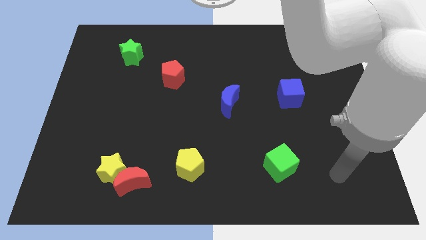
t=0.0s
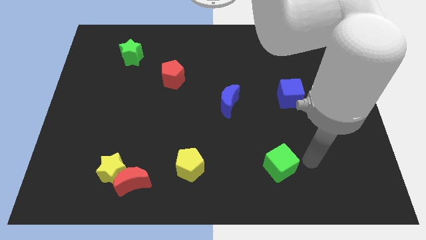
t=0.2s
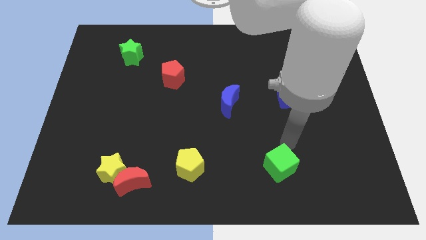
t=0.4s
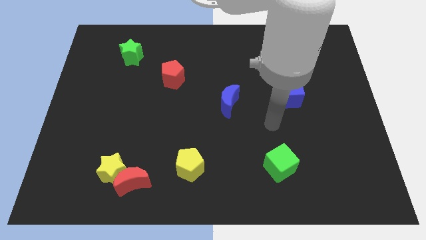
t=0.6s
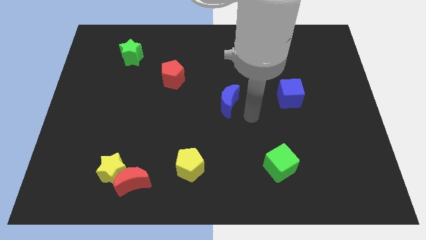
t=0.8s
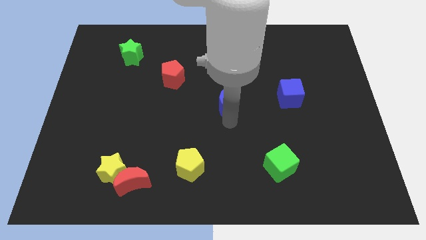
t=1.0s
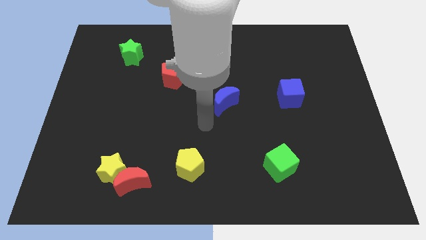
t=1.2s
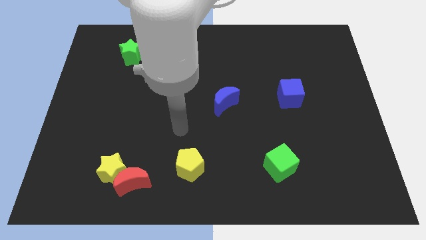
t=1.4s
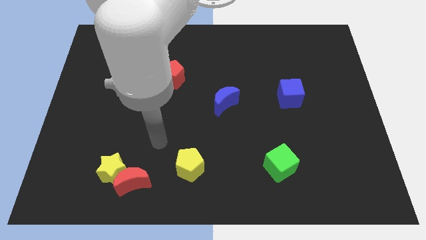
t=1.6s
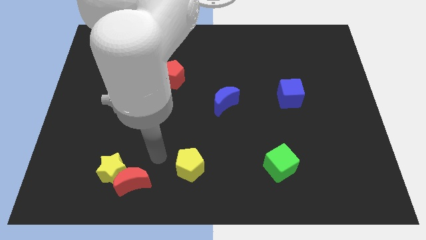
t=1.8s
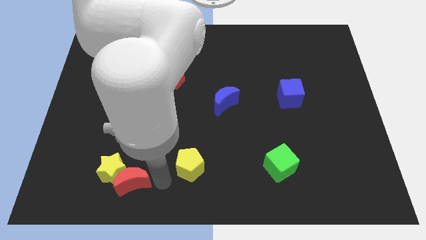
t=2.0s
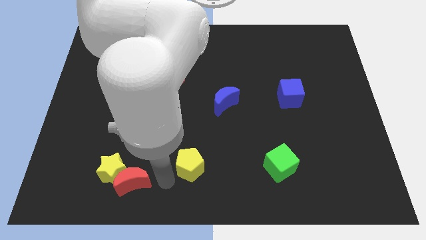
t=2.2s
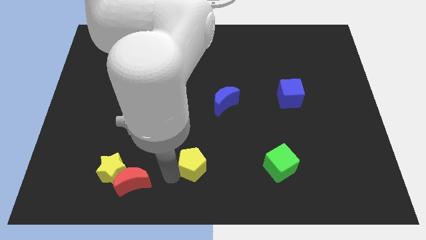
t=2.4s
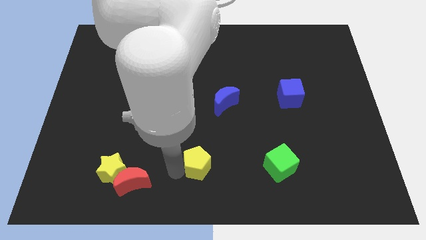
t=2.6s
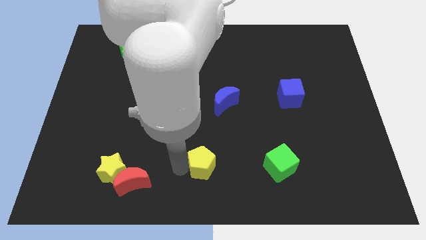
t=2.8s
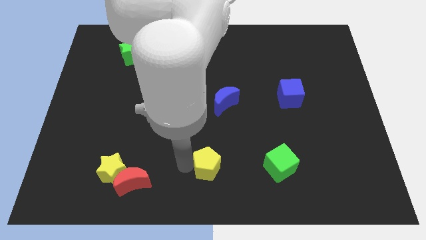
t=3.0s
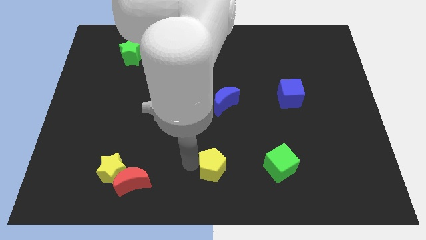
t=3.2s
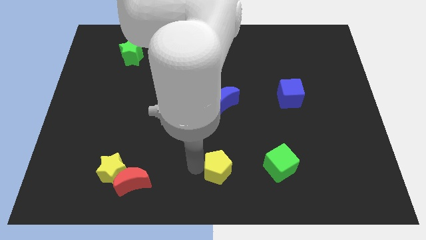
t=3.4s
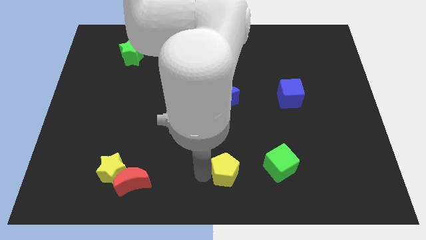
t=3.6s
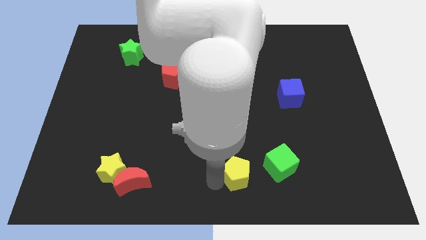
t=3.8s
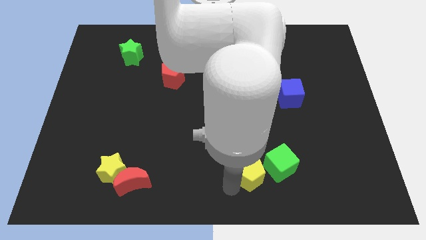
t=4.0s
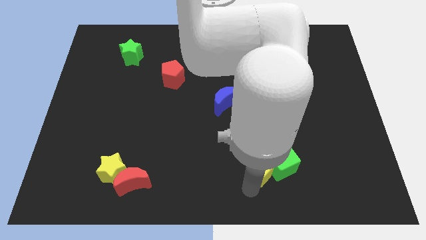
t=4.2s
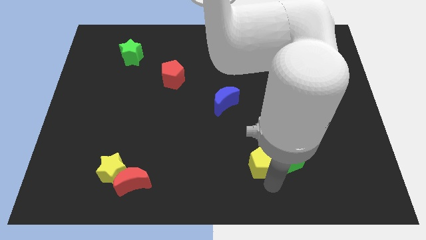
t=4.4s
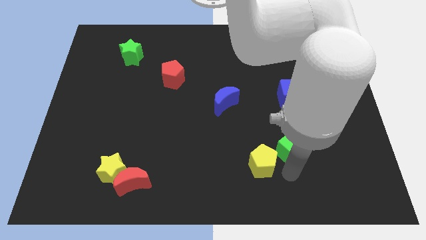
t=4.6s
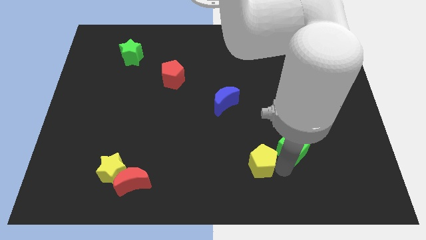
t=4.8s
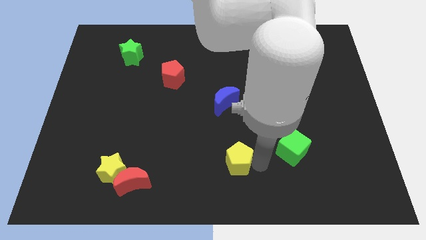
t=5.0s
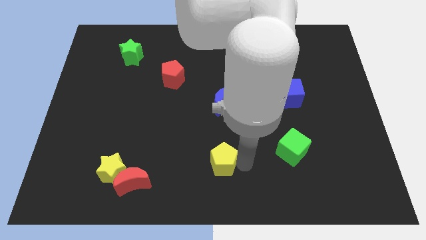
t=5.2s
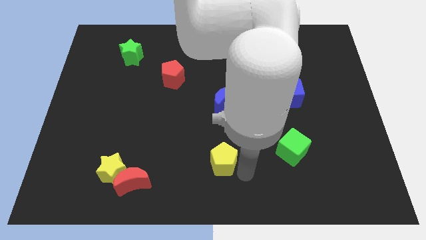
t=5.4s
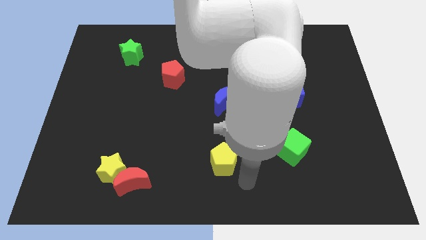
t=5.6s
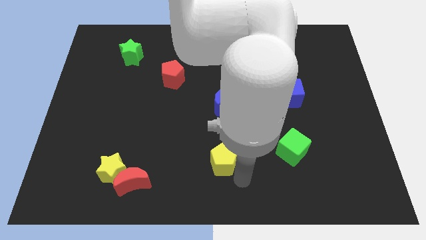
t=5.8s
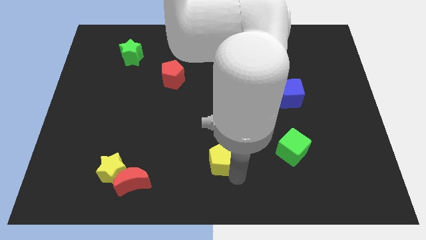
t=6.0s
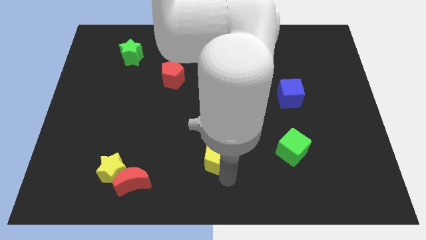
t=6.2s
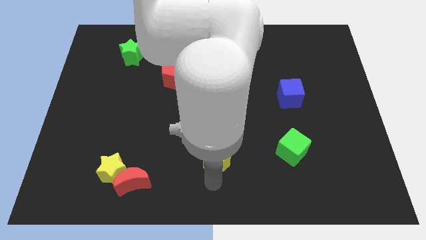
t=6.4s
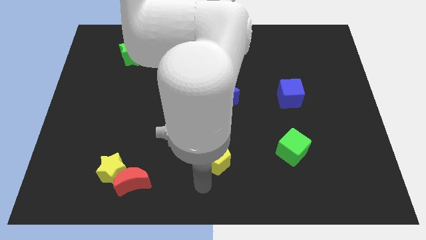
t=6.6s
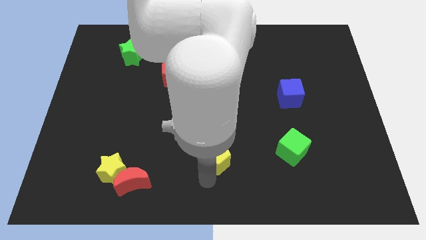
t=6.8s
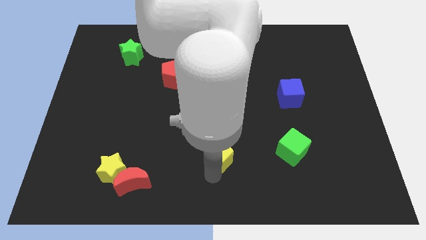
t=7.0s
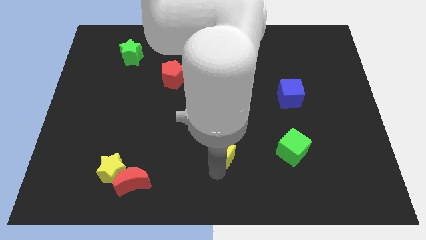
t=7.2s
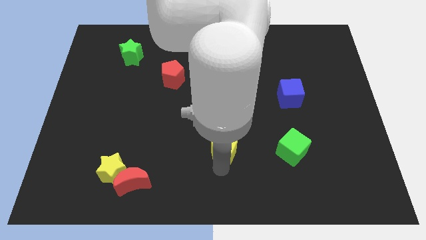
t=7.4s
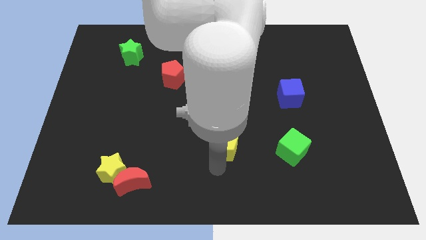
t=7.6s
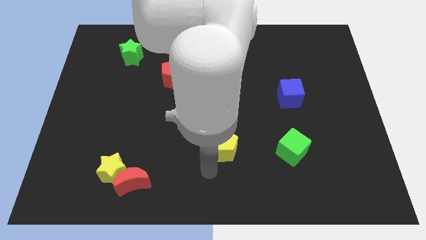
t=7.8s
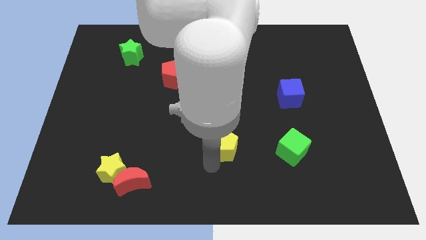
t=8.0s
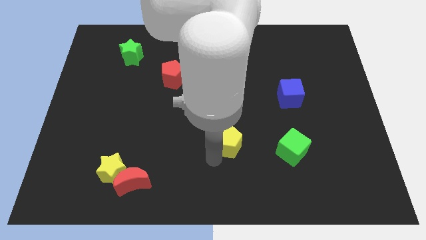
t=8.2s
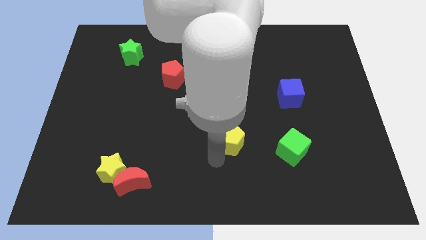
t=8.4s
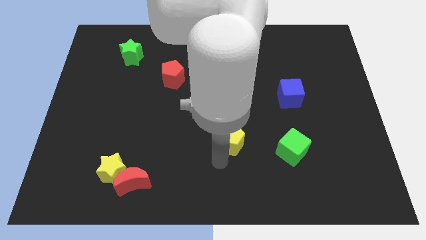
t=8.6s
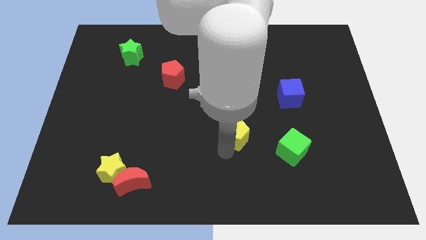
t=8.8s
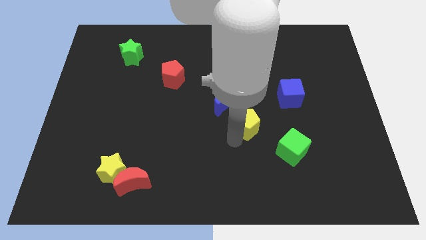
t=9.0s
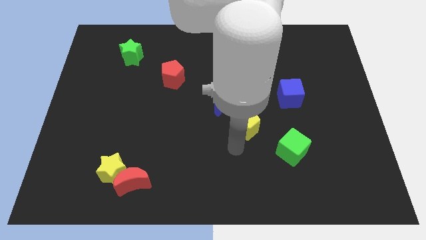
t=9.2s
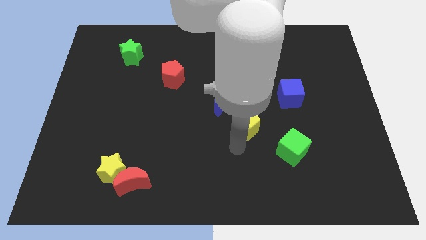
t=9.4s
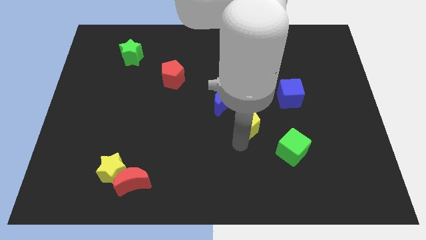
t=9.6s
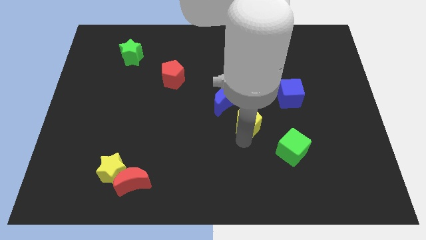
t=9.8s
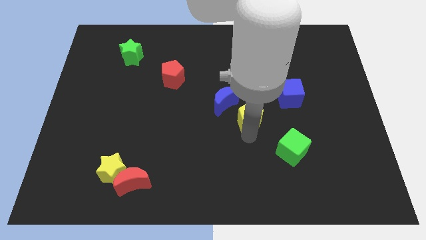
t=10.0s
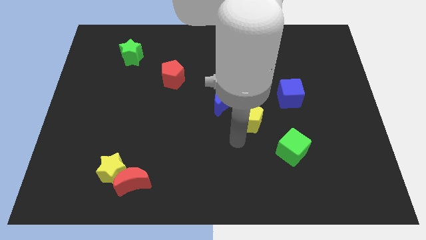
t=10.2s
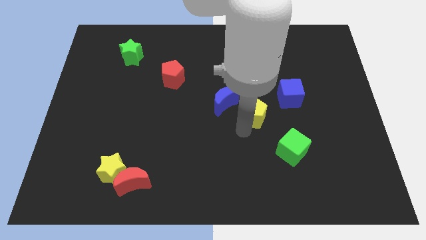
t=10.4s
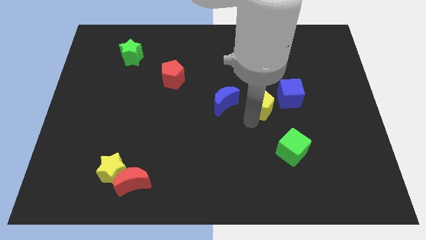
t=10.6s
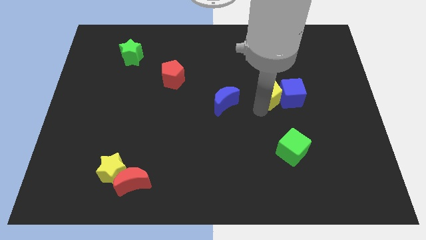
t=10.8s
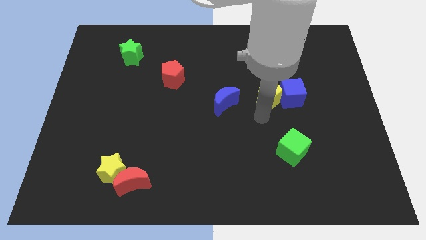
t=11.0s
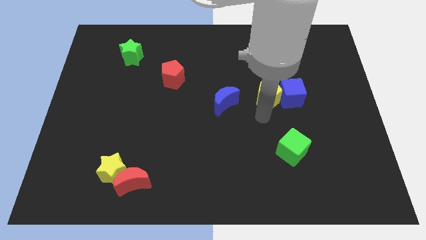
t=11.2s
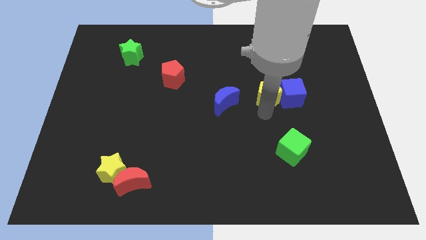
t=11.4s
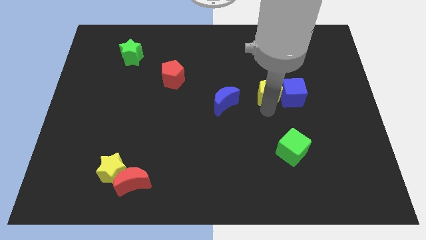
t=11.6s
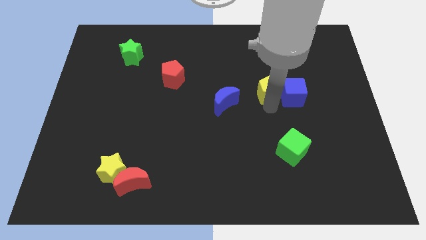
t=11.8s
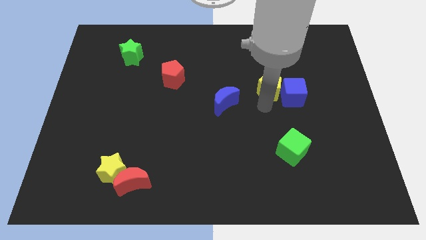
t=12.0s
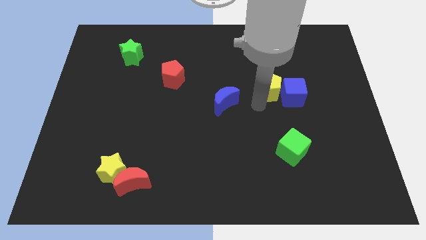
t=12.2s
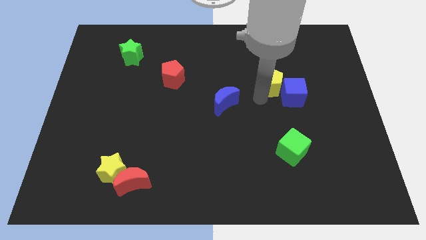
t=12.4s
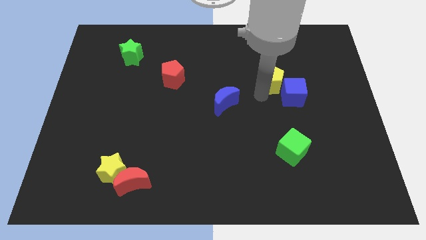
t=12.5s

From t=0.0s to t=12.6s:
push the yellow pentagon to the top side of the blue cube

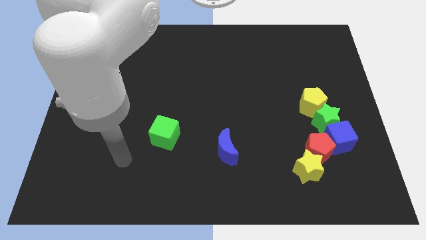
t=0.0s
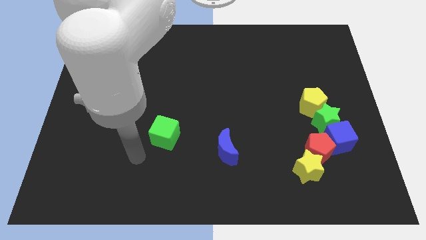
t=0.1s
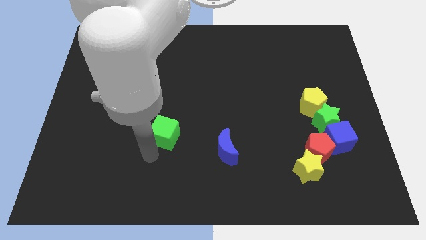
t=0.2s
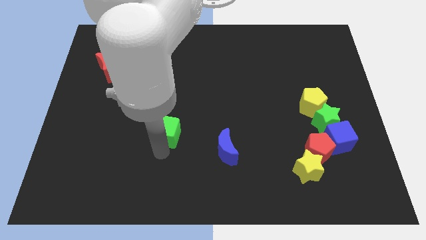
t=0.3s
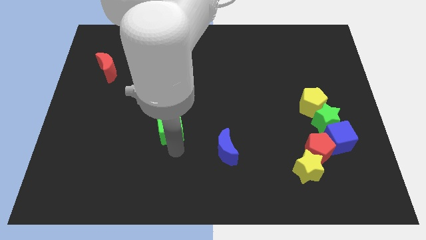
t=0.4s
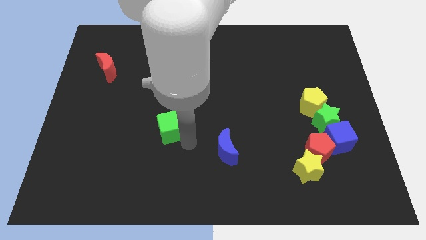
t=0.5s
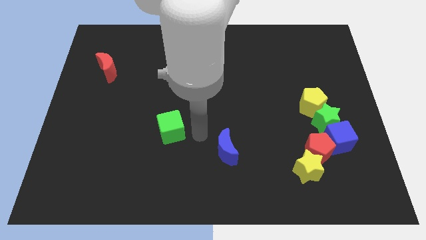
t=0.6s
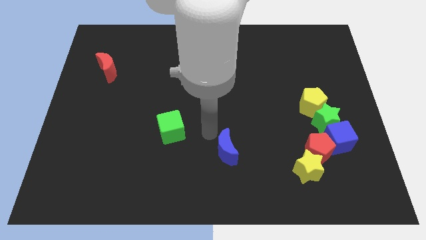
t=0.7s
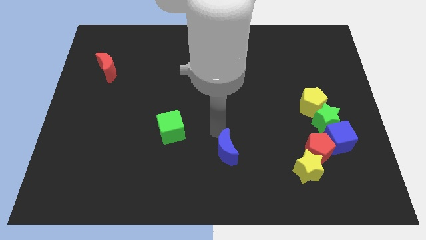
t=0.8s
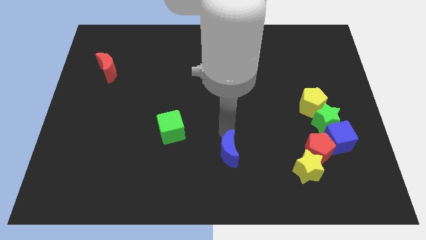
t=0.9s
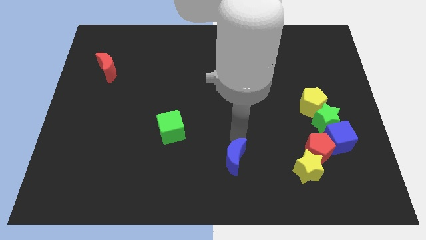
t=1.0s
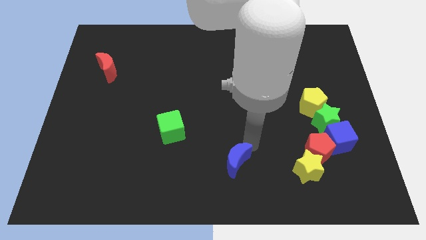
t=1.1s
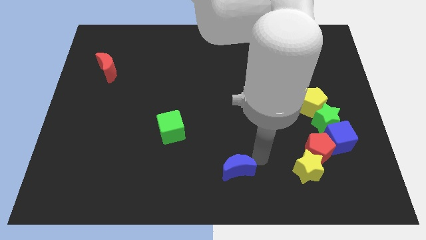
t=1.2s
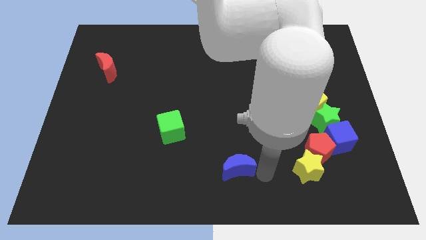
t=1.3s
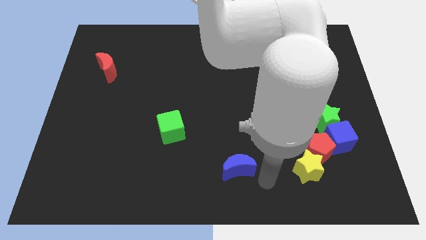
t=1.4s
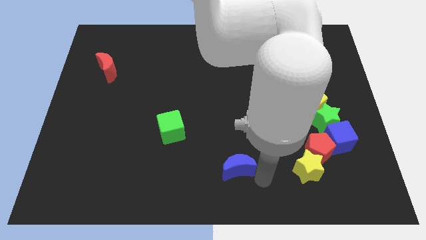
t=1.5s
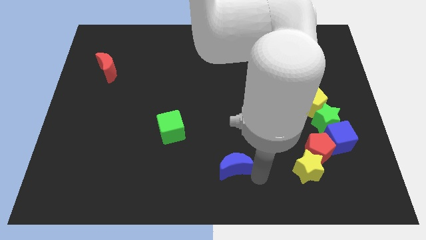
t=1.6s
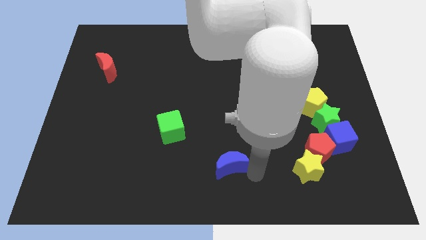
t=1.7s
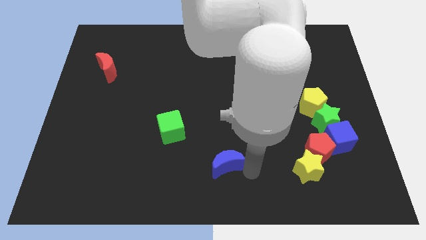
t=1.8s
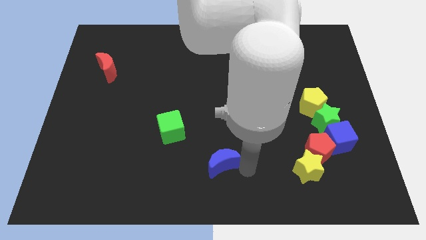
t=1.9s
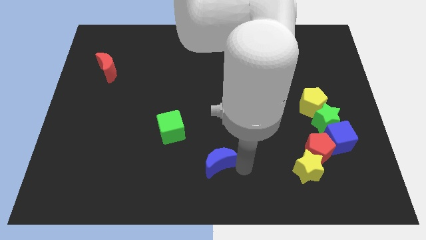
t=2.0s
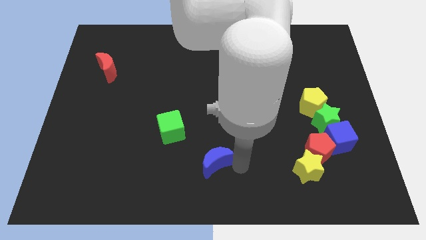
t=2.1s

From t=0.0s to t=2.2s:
push the blue moon diagonally down and to the right of the green cube
